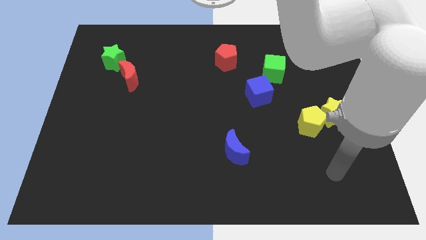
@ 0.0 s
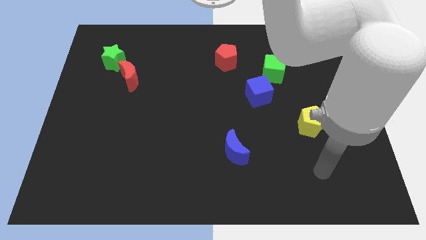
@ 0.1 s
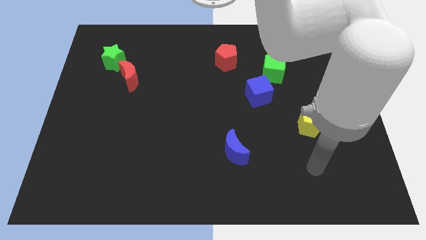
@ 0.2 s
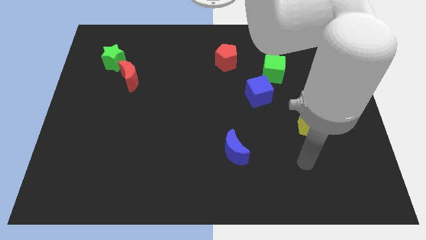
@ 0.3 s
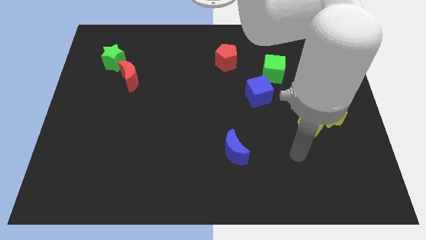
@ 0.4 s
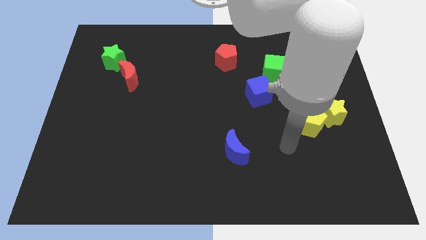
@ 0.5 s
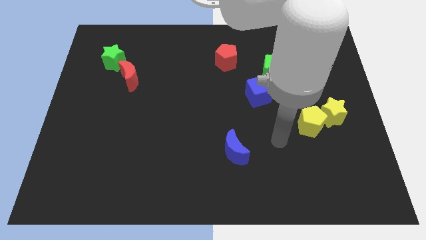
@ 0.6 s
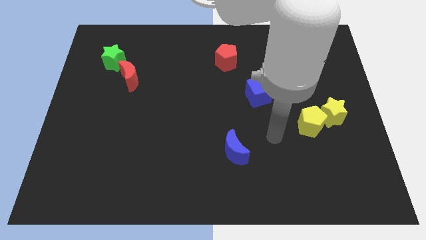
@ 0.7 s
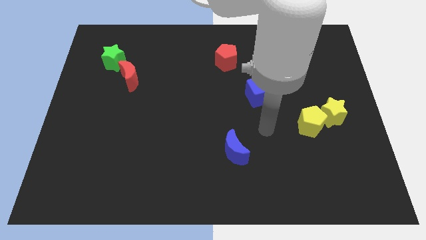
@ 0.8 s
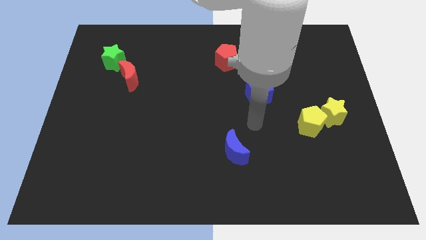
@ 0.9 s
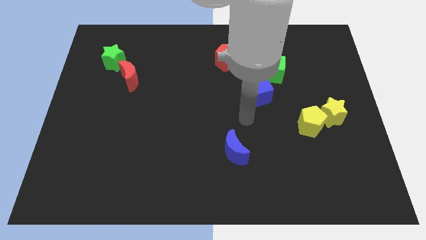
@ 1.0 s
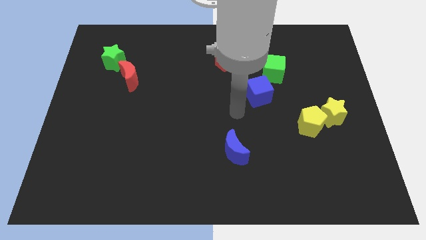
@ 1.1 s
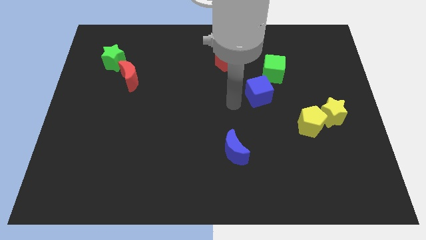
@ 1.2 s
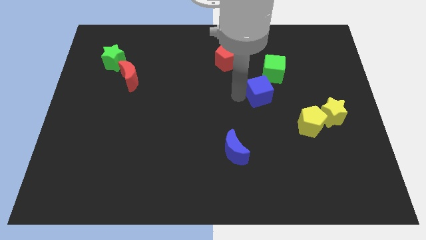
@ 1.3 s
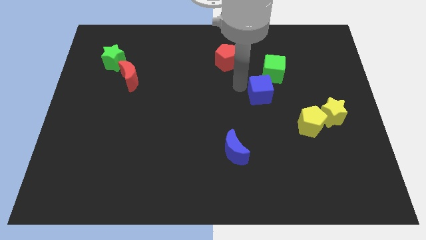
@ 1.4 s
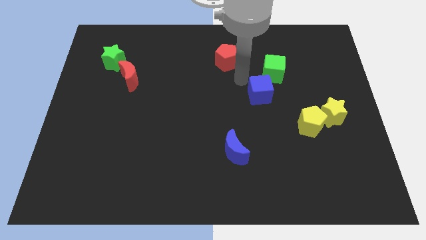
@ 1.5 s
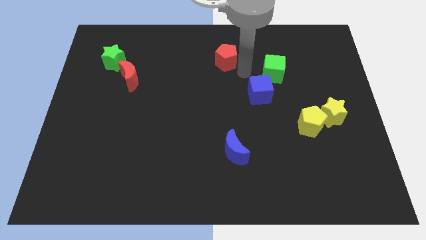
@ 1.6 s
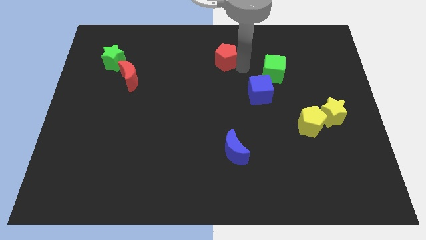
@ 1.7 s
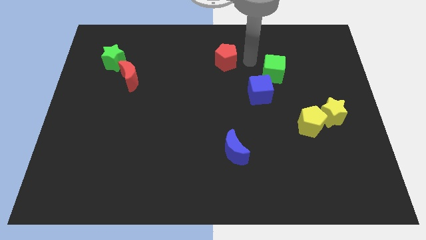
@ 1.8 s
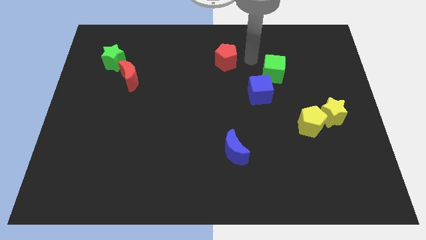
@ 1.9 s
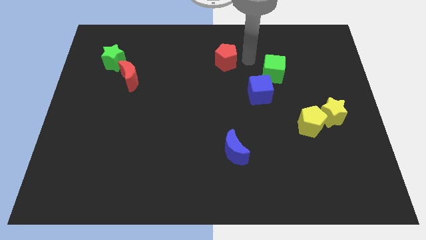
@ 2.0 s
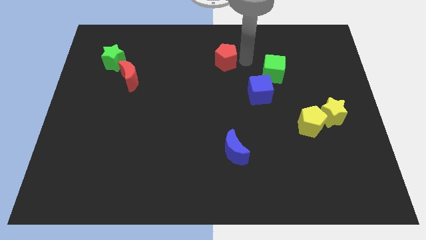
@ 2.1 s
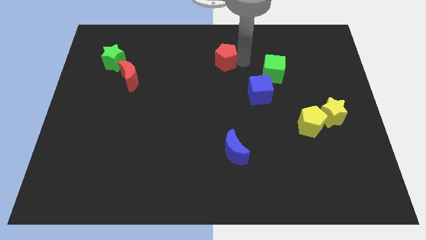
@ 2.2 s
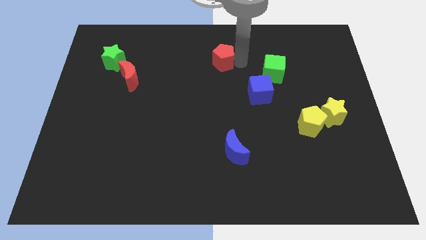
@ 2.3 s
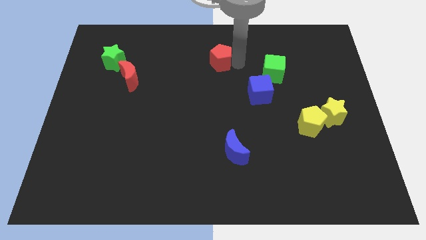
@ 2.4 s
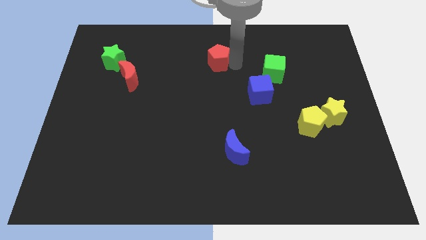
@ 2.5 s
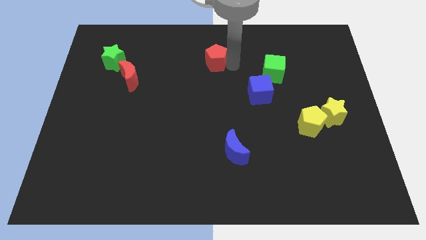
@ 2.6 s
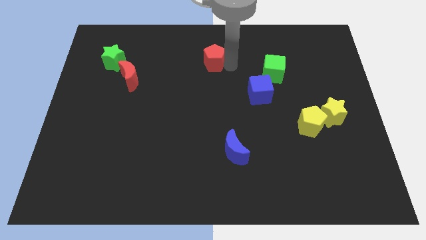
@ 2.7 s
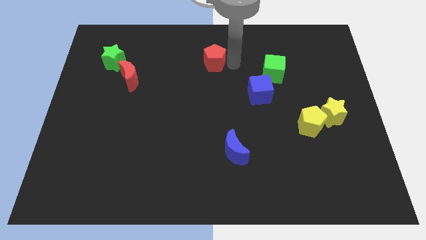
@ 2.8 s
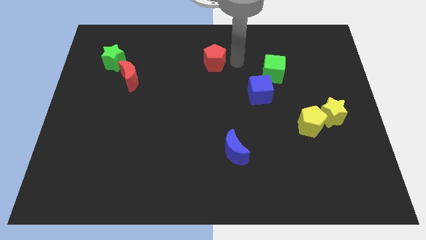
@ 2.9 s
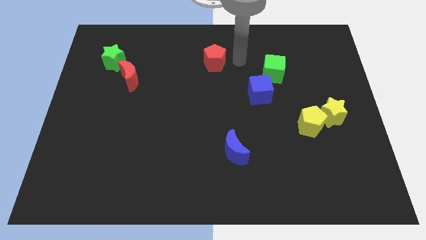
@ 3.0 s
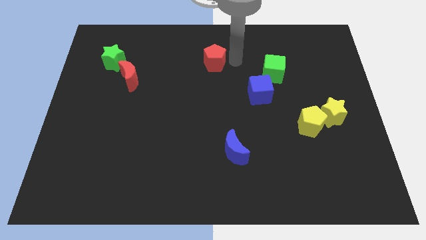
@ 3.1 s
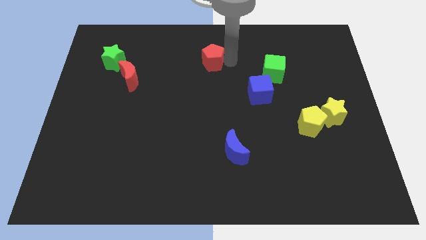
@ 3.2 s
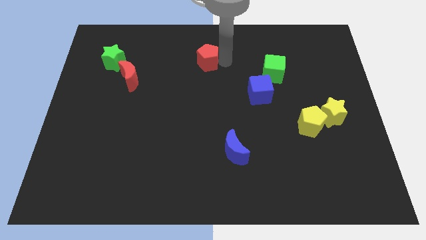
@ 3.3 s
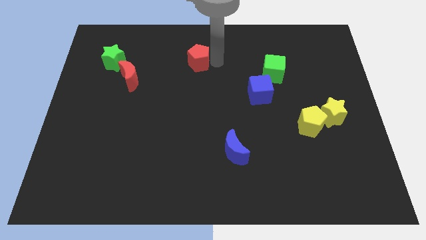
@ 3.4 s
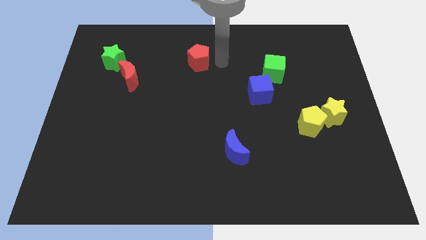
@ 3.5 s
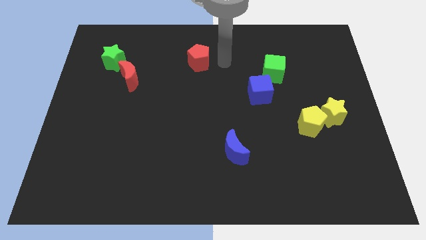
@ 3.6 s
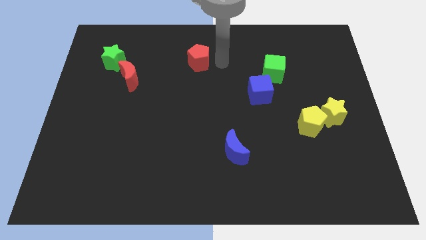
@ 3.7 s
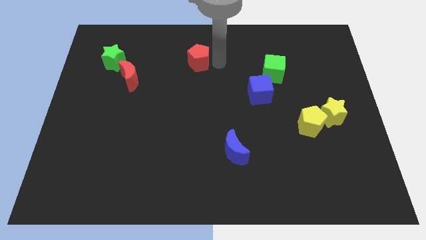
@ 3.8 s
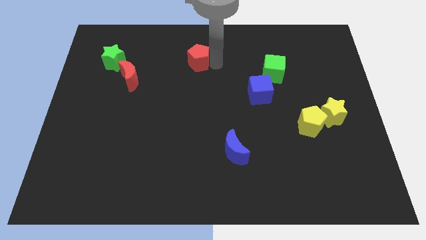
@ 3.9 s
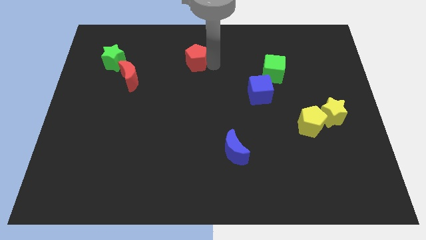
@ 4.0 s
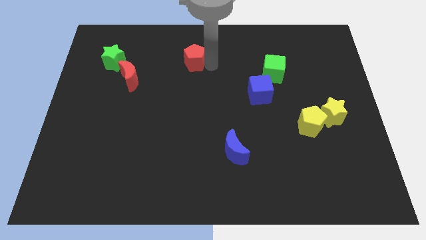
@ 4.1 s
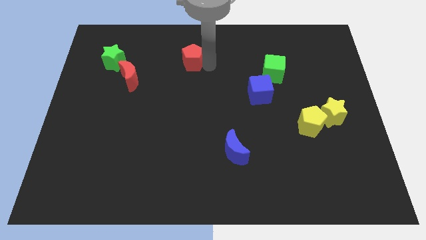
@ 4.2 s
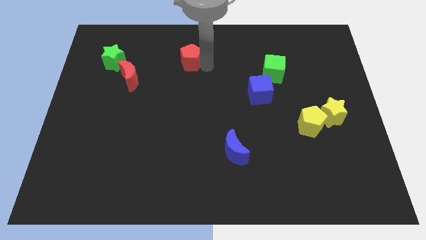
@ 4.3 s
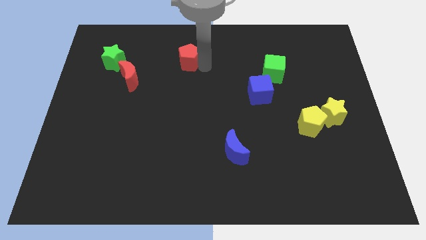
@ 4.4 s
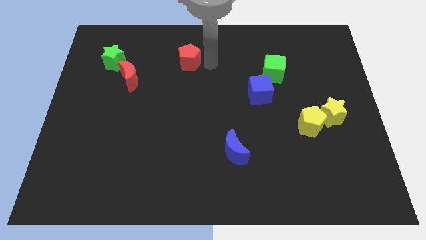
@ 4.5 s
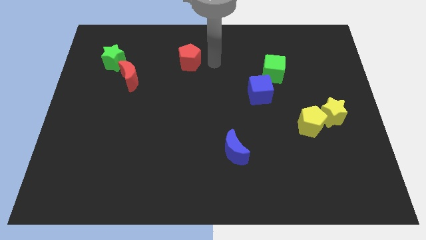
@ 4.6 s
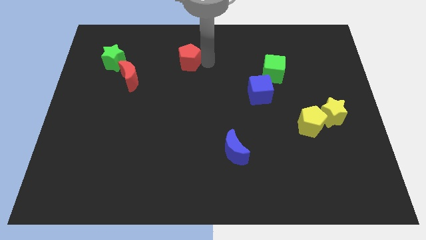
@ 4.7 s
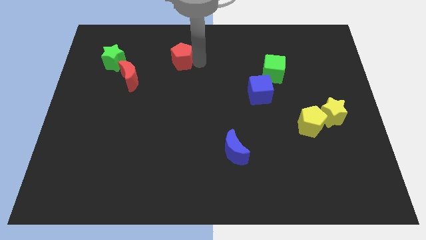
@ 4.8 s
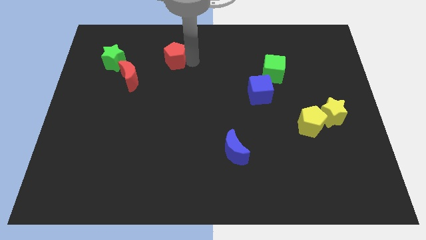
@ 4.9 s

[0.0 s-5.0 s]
slide the red pentagon to the right side of the green star

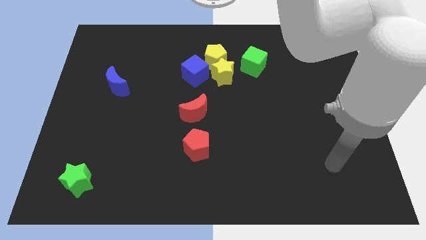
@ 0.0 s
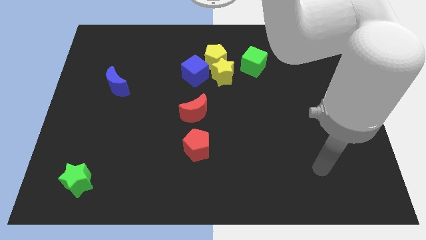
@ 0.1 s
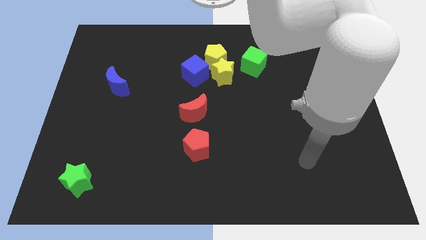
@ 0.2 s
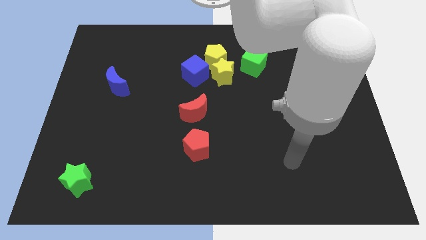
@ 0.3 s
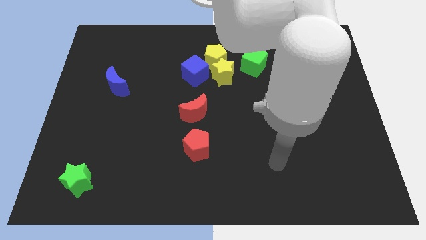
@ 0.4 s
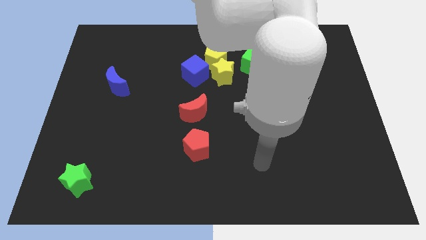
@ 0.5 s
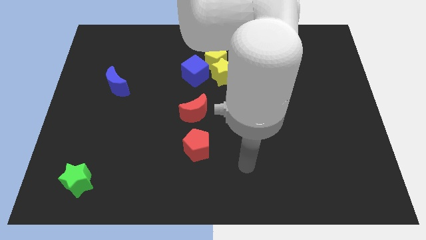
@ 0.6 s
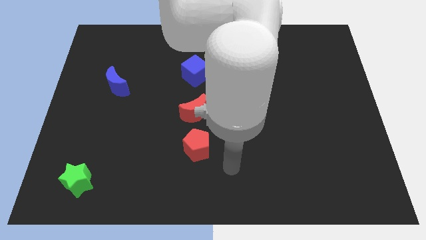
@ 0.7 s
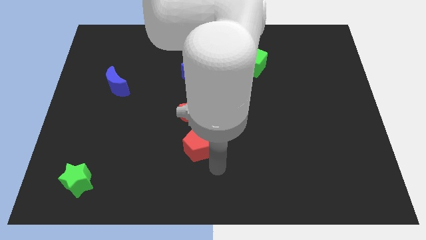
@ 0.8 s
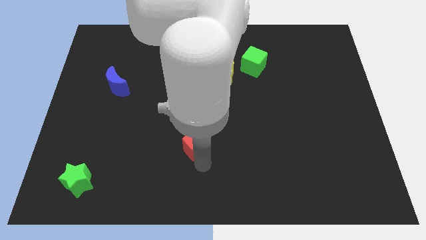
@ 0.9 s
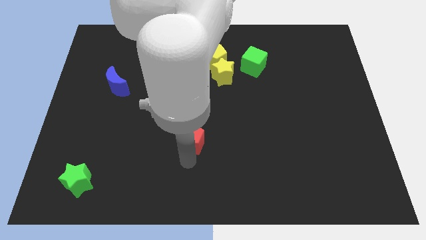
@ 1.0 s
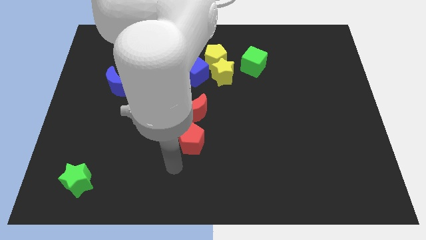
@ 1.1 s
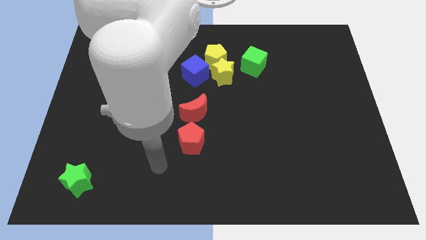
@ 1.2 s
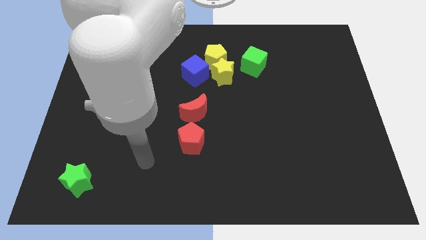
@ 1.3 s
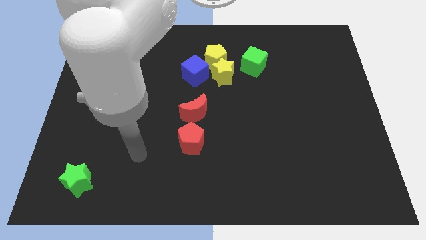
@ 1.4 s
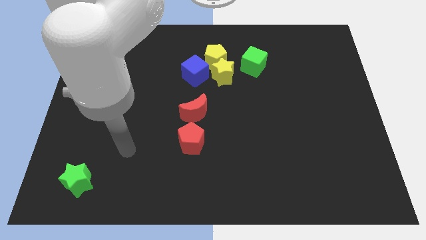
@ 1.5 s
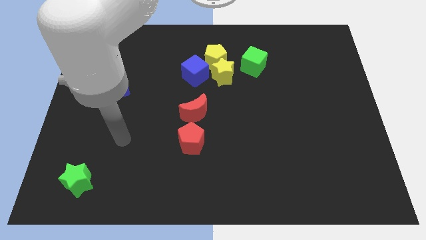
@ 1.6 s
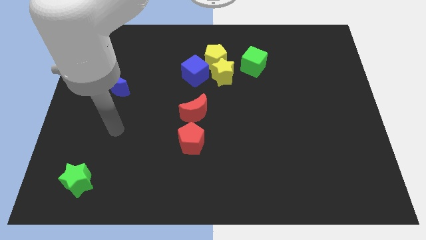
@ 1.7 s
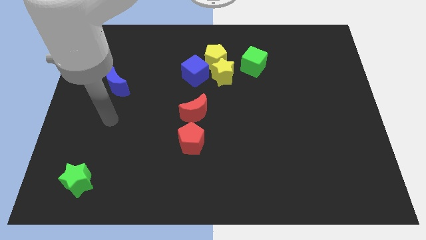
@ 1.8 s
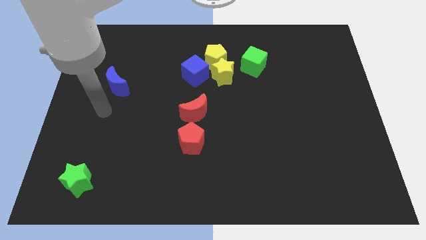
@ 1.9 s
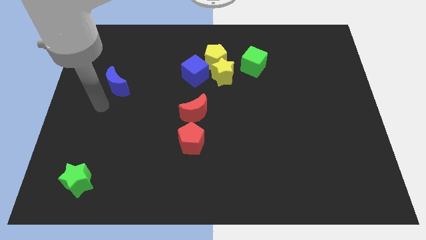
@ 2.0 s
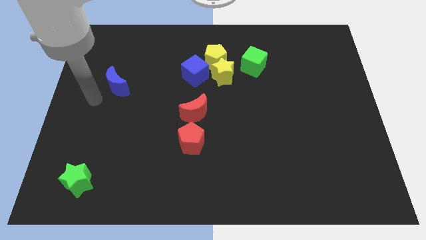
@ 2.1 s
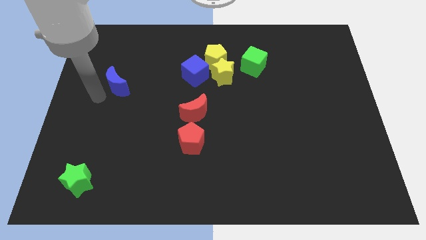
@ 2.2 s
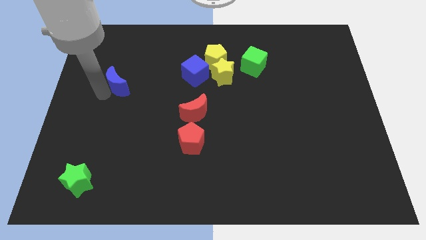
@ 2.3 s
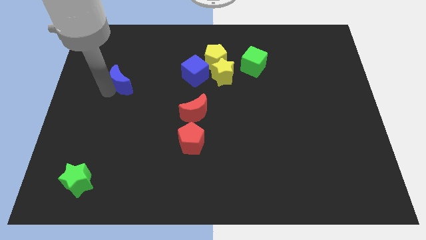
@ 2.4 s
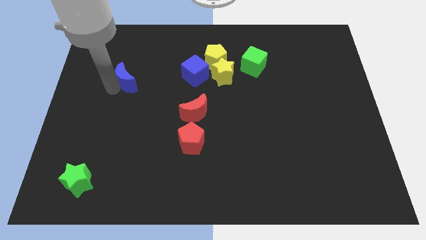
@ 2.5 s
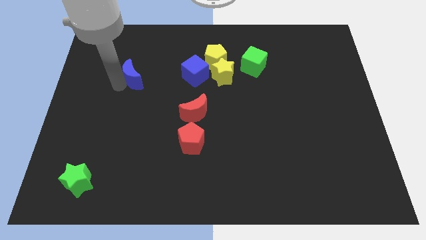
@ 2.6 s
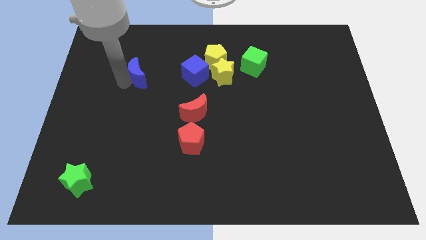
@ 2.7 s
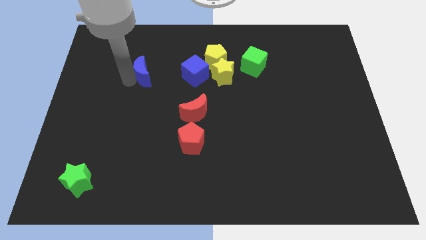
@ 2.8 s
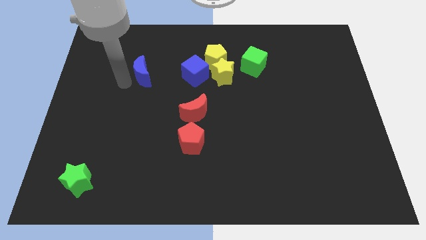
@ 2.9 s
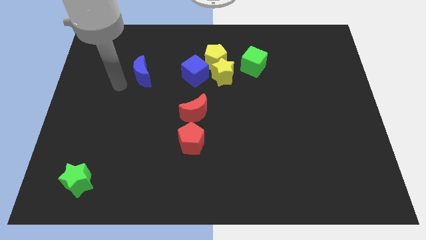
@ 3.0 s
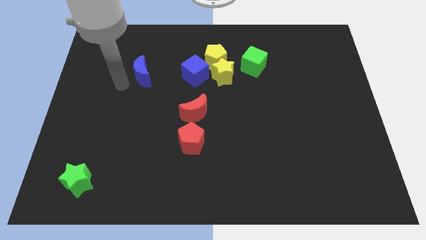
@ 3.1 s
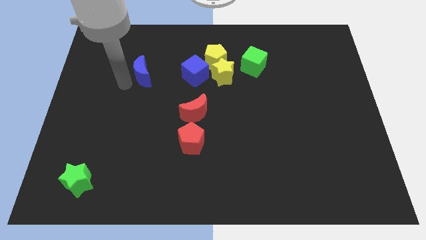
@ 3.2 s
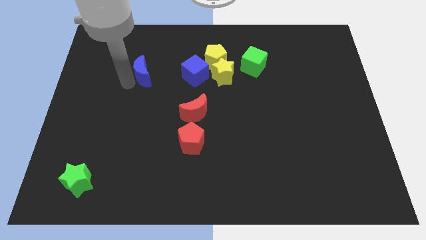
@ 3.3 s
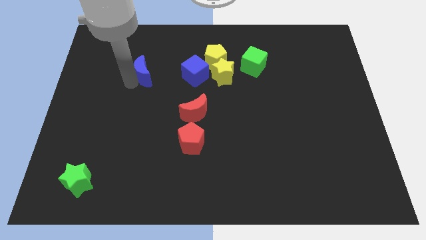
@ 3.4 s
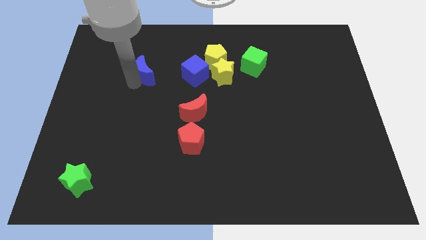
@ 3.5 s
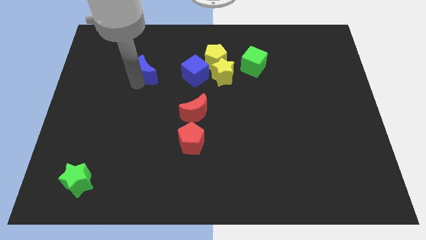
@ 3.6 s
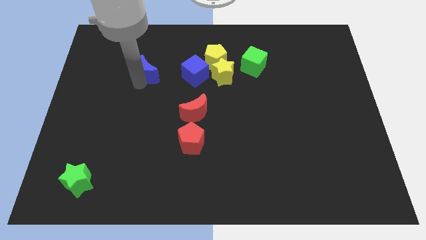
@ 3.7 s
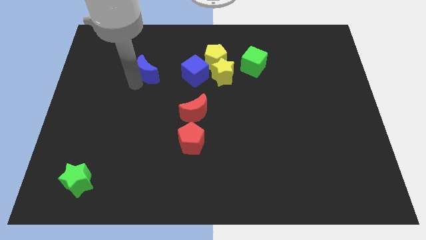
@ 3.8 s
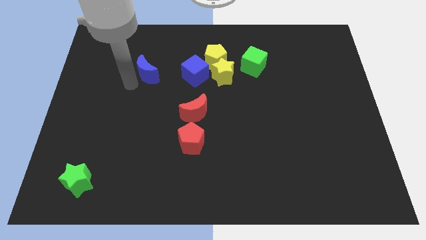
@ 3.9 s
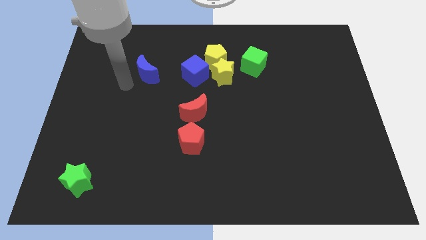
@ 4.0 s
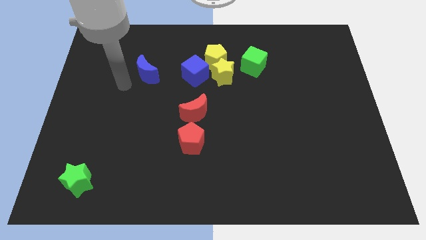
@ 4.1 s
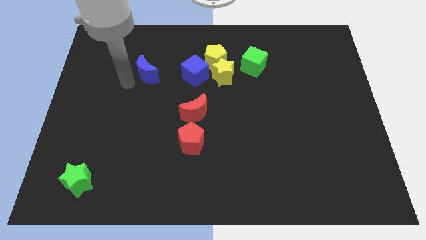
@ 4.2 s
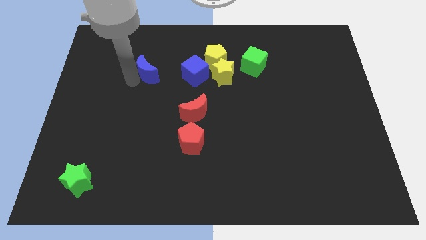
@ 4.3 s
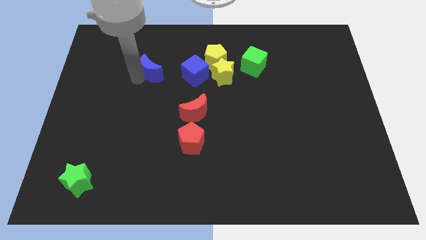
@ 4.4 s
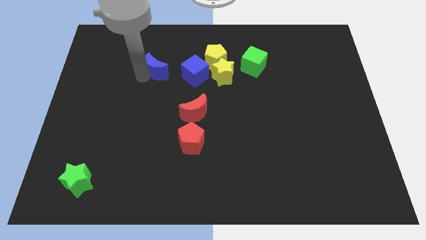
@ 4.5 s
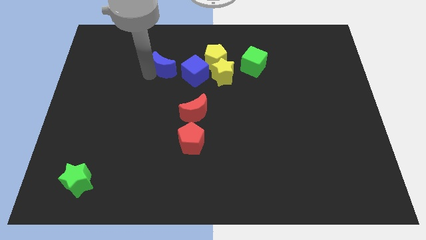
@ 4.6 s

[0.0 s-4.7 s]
push the blue moon left of the yellow pentagon
